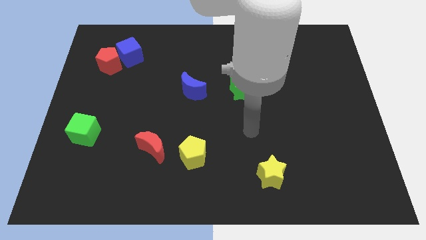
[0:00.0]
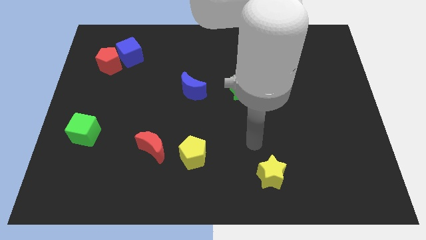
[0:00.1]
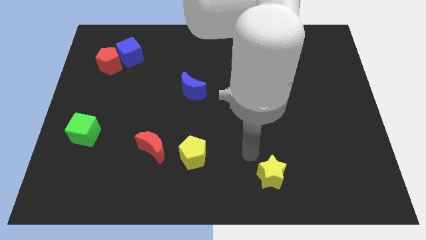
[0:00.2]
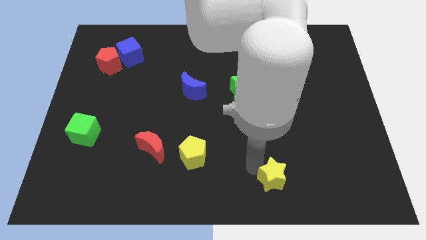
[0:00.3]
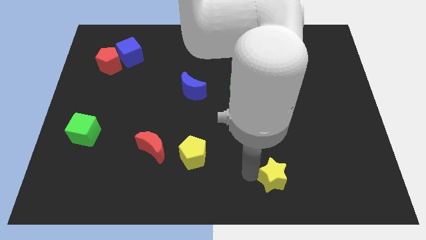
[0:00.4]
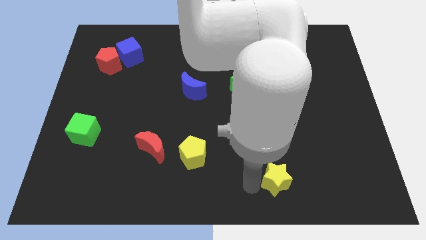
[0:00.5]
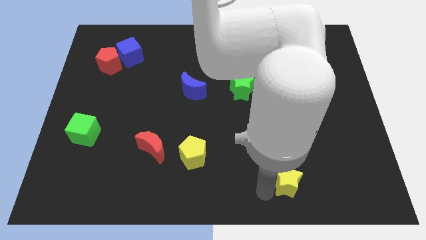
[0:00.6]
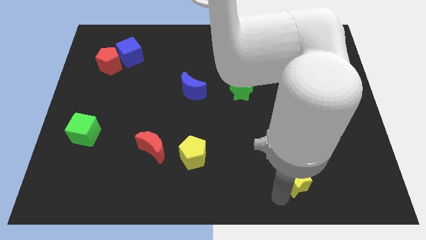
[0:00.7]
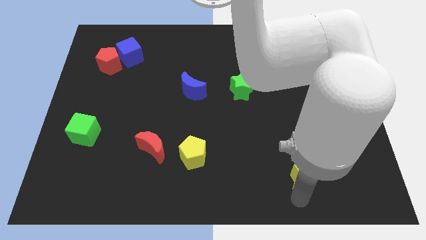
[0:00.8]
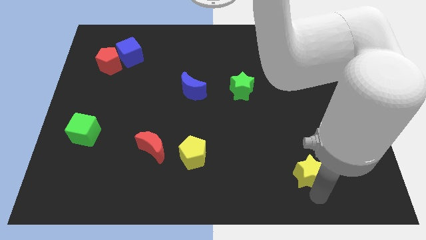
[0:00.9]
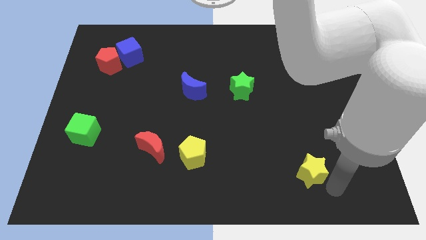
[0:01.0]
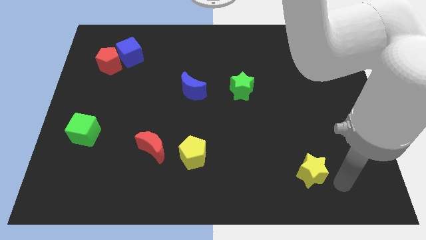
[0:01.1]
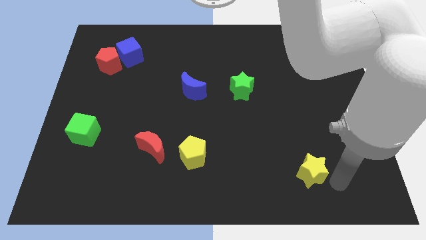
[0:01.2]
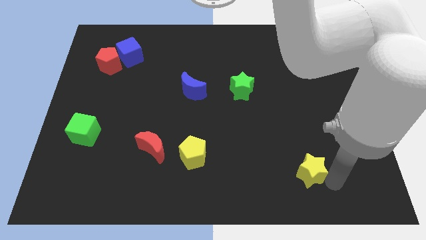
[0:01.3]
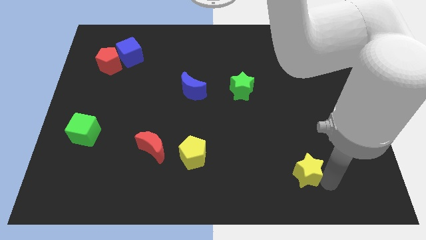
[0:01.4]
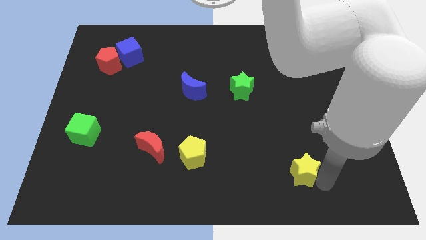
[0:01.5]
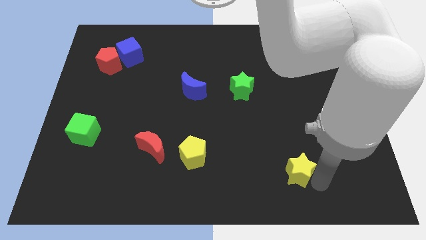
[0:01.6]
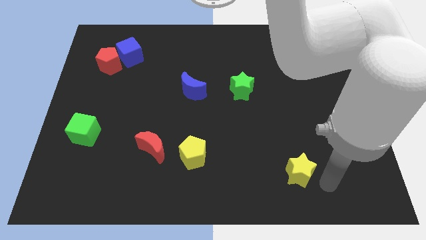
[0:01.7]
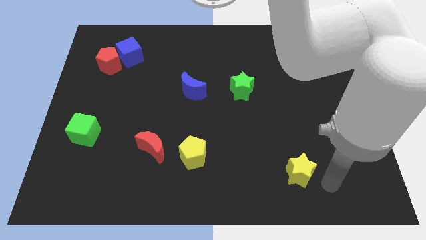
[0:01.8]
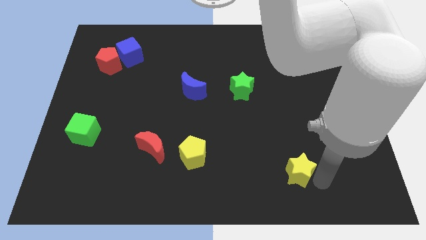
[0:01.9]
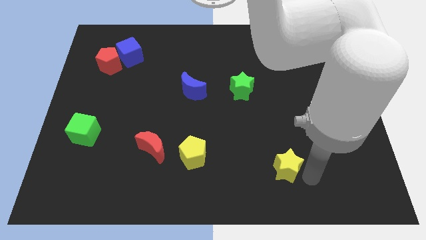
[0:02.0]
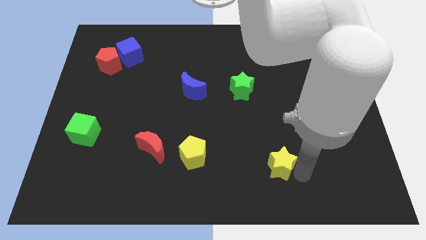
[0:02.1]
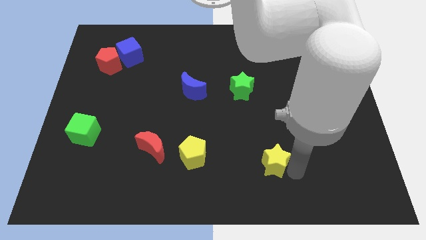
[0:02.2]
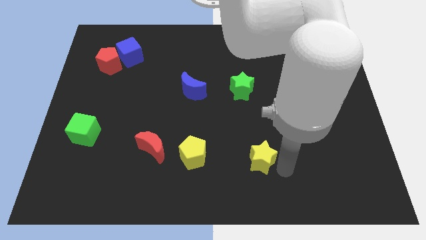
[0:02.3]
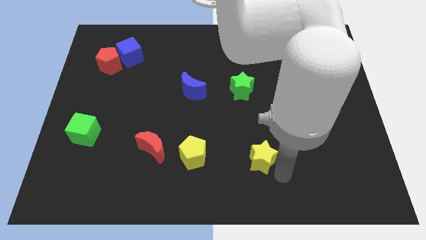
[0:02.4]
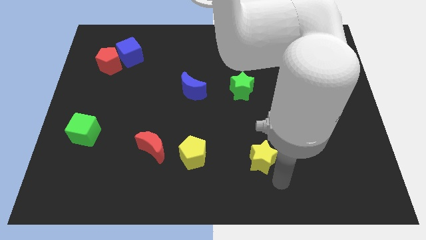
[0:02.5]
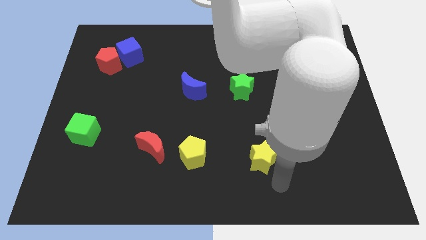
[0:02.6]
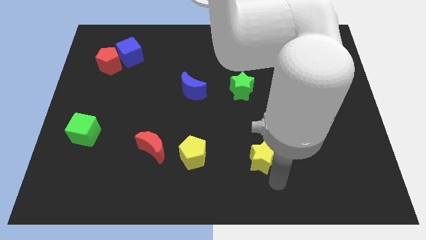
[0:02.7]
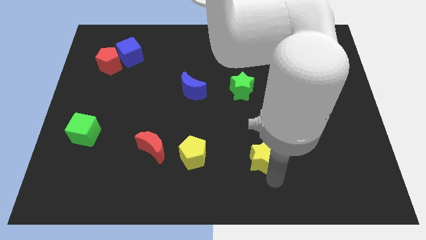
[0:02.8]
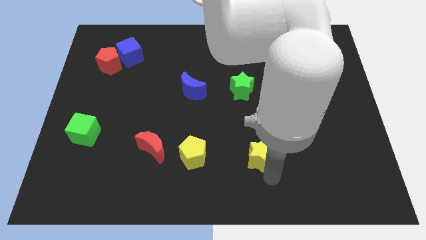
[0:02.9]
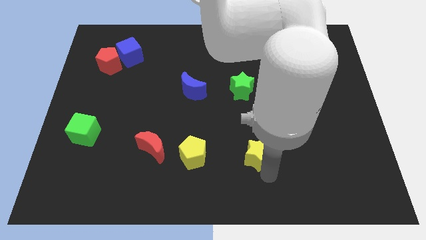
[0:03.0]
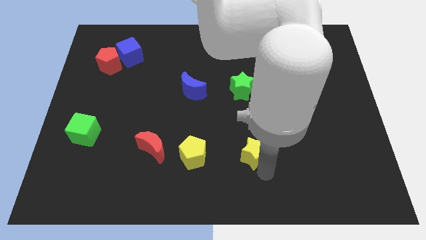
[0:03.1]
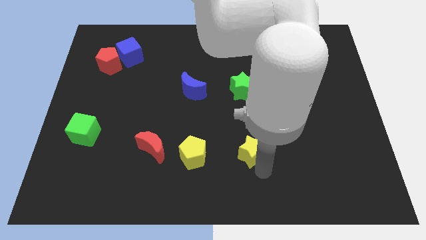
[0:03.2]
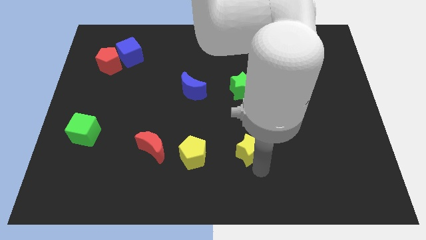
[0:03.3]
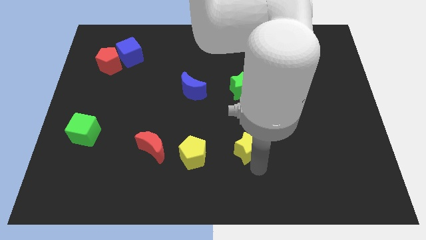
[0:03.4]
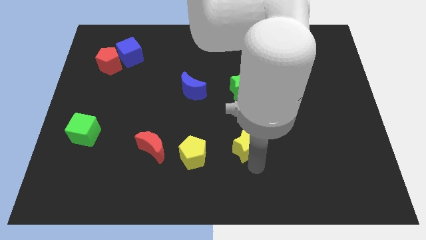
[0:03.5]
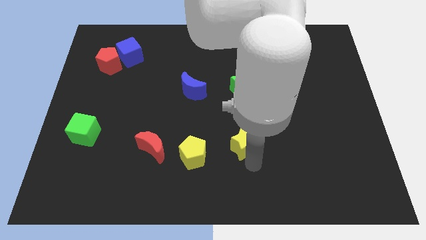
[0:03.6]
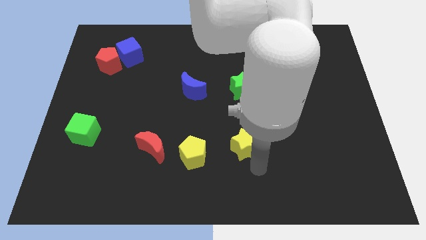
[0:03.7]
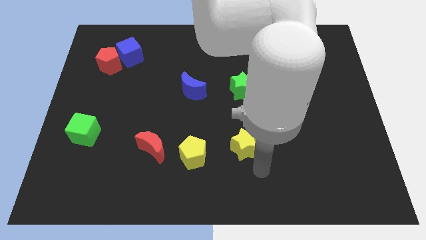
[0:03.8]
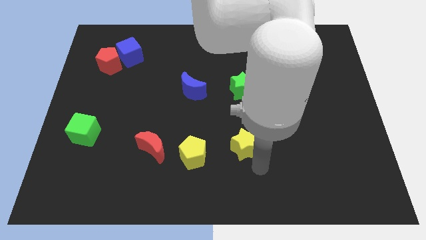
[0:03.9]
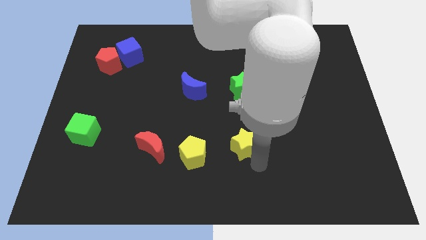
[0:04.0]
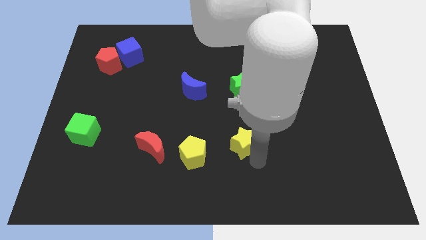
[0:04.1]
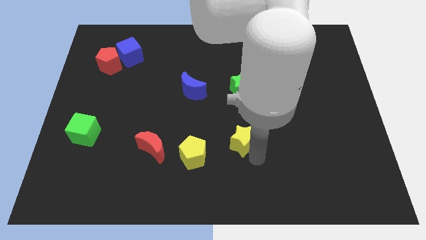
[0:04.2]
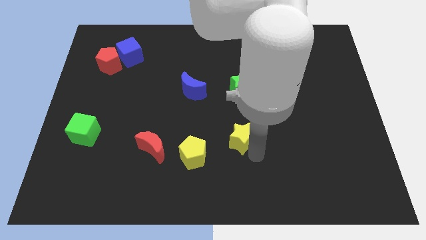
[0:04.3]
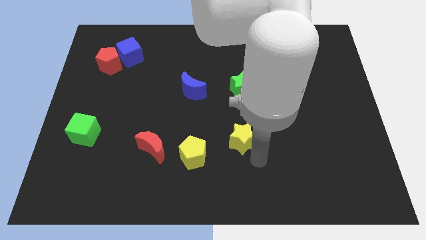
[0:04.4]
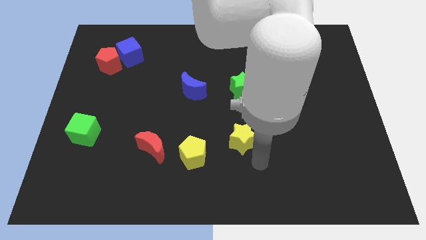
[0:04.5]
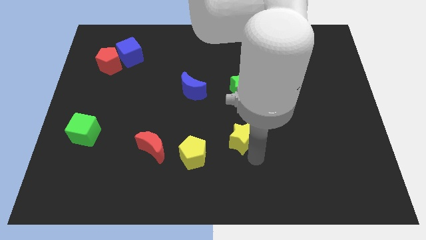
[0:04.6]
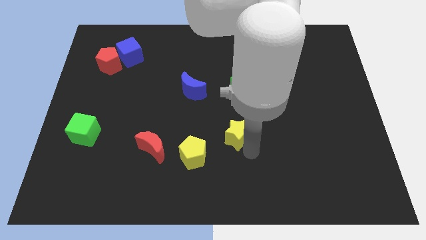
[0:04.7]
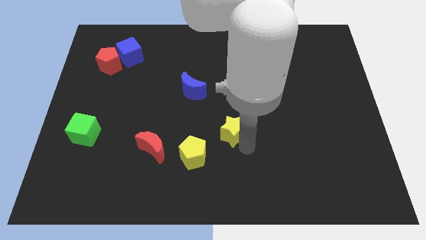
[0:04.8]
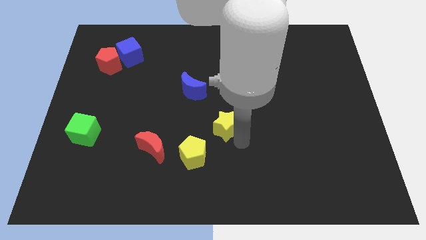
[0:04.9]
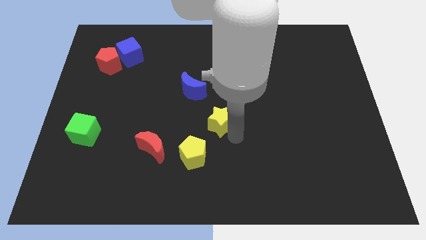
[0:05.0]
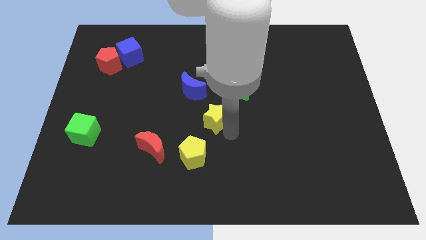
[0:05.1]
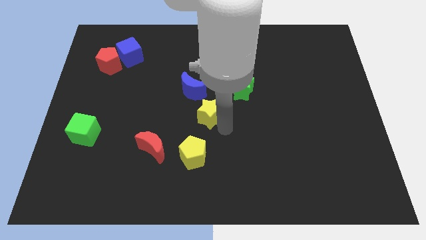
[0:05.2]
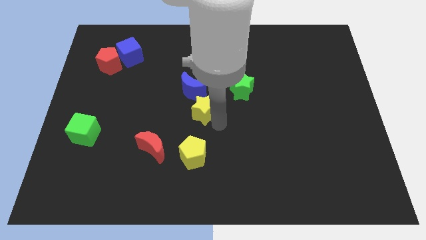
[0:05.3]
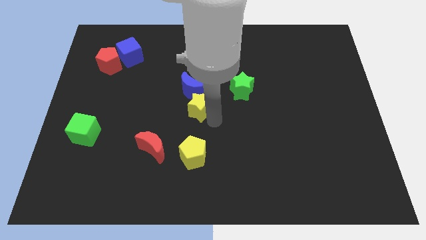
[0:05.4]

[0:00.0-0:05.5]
push the yellow star next to the blue moon

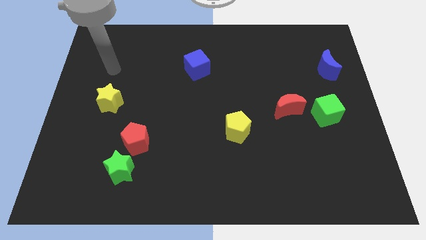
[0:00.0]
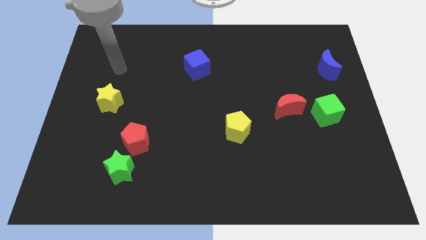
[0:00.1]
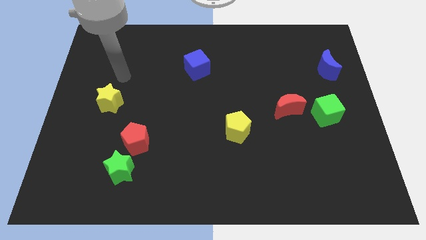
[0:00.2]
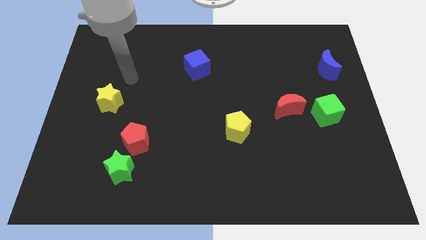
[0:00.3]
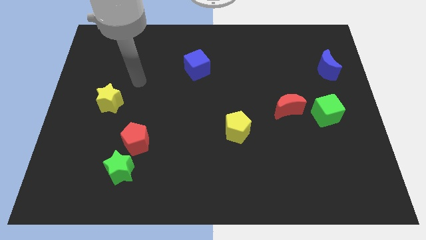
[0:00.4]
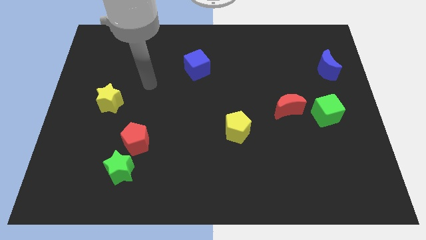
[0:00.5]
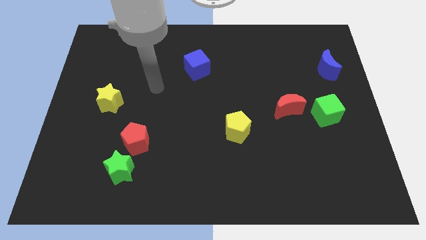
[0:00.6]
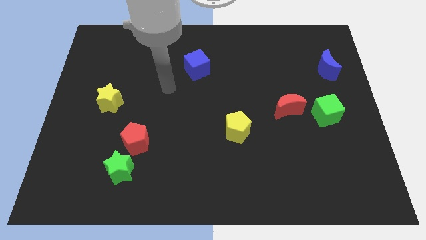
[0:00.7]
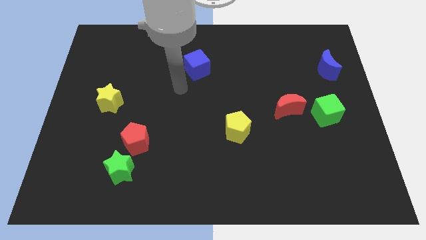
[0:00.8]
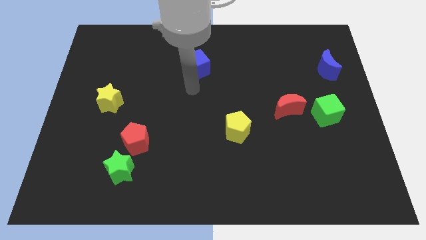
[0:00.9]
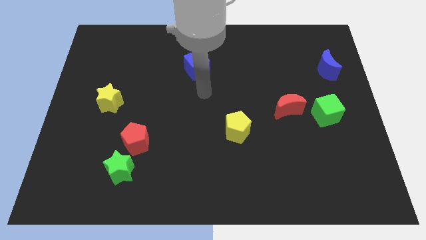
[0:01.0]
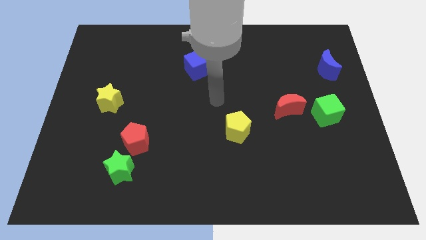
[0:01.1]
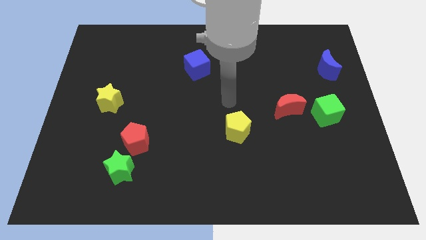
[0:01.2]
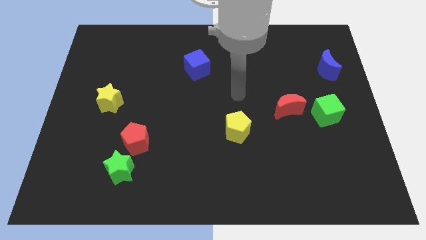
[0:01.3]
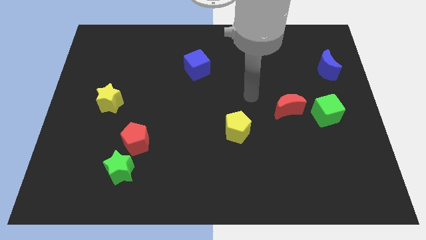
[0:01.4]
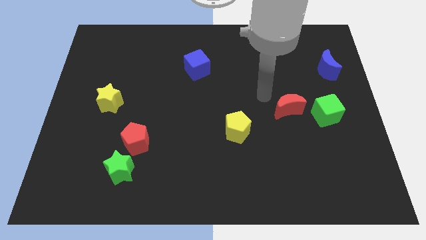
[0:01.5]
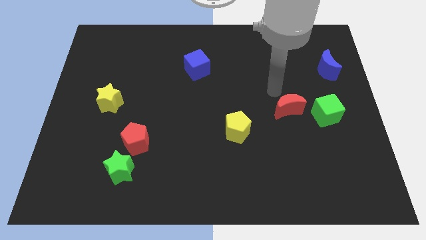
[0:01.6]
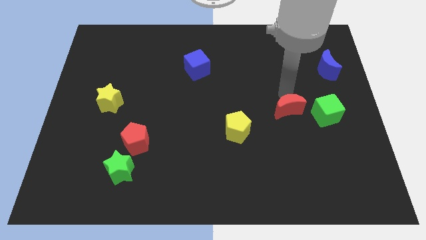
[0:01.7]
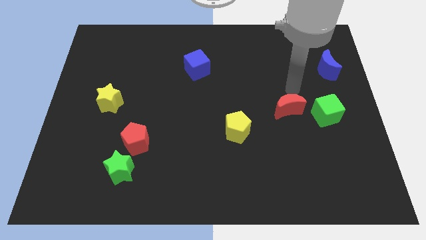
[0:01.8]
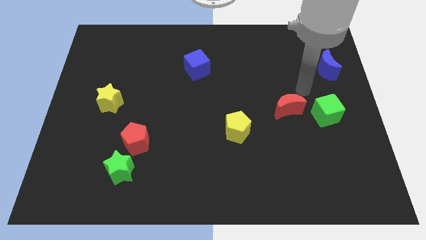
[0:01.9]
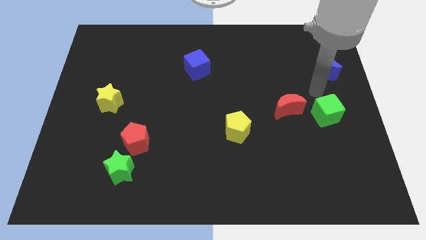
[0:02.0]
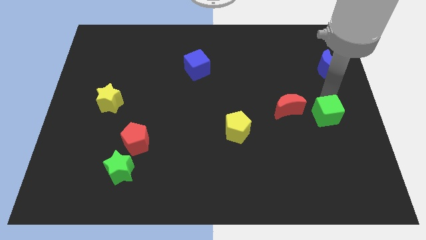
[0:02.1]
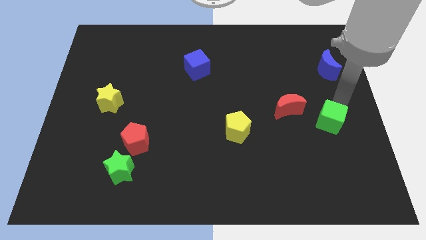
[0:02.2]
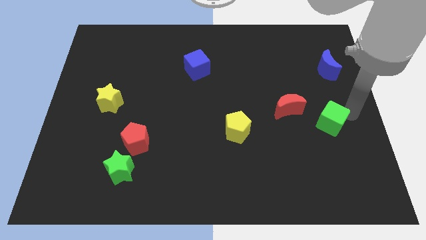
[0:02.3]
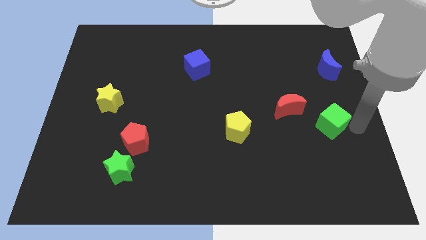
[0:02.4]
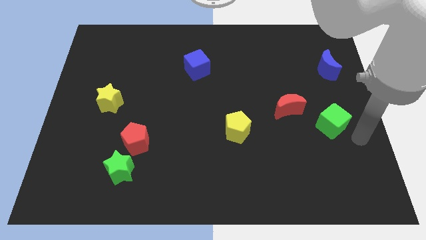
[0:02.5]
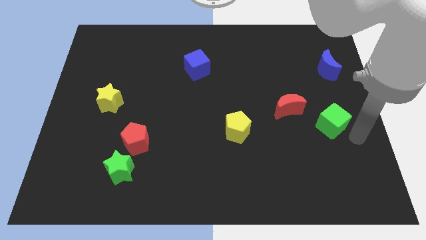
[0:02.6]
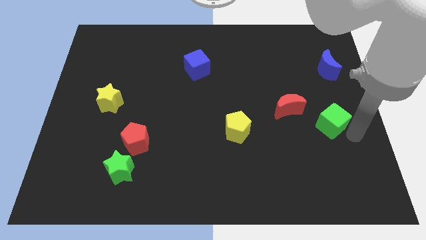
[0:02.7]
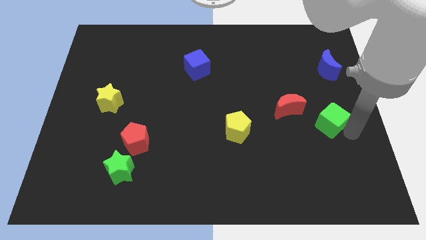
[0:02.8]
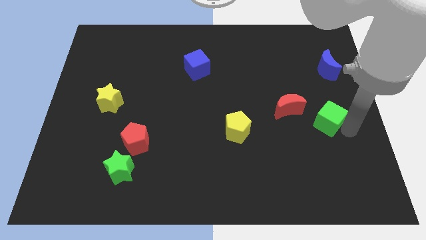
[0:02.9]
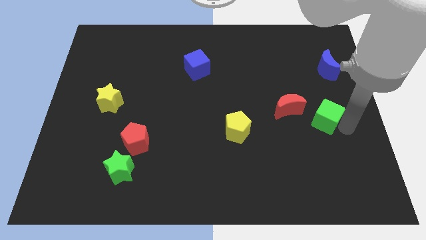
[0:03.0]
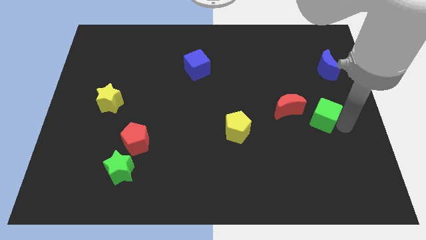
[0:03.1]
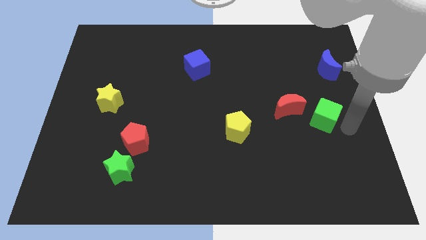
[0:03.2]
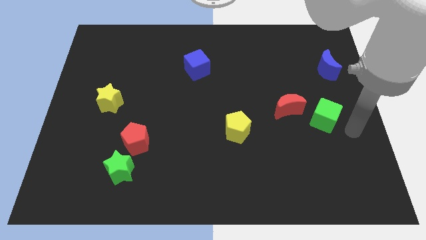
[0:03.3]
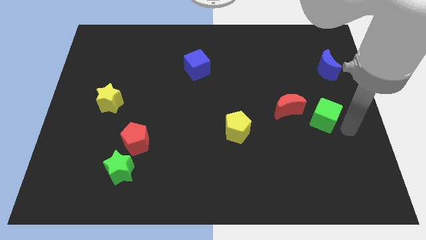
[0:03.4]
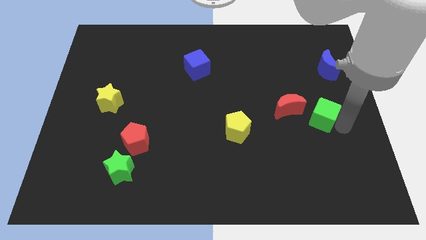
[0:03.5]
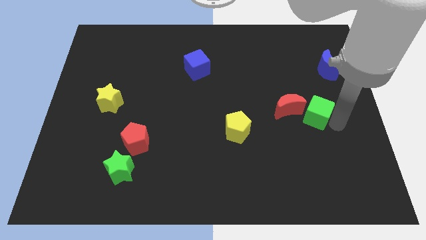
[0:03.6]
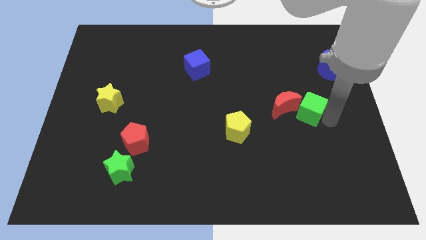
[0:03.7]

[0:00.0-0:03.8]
put the green cube next to the red moon
